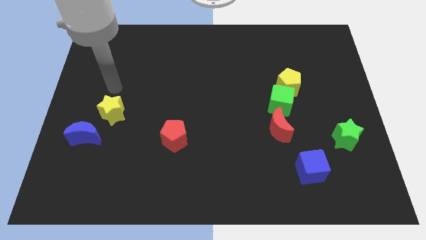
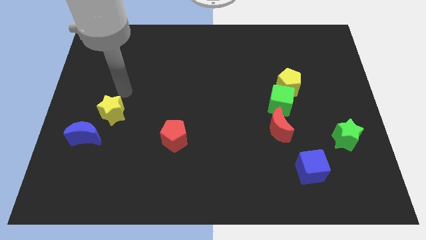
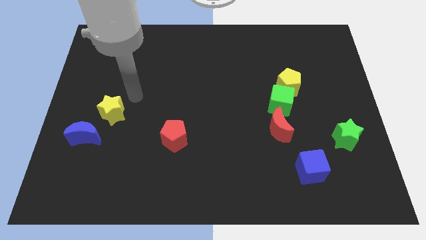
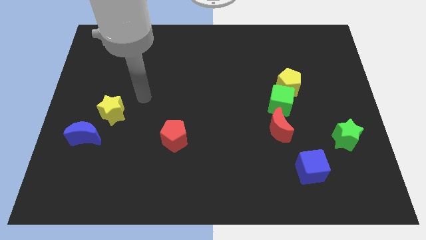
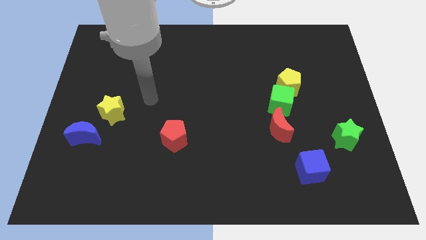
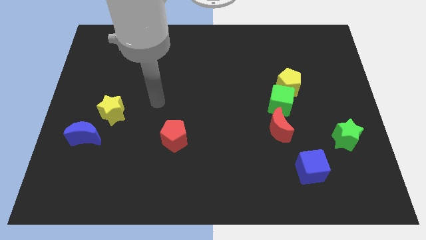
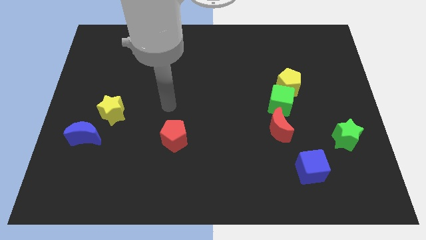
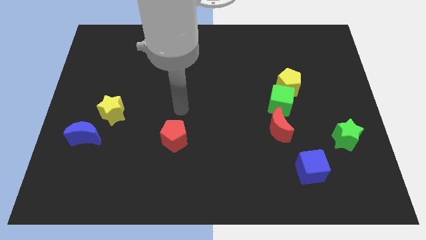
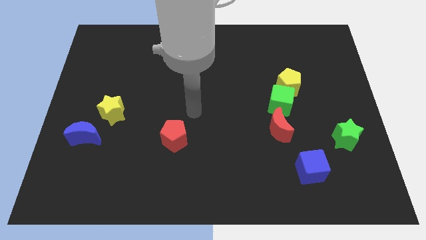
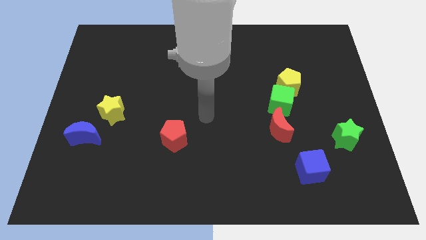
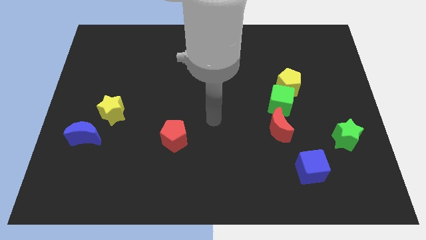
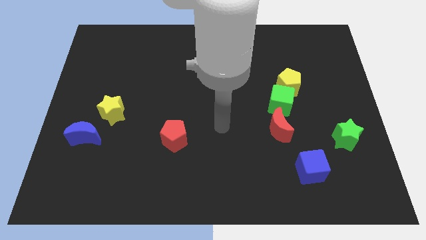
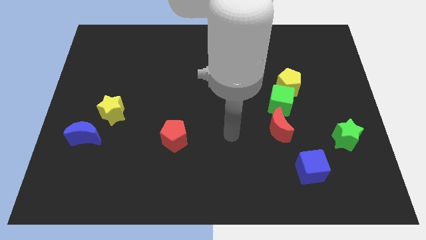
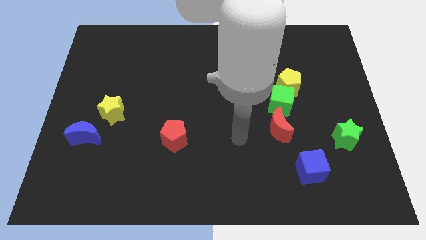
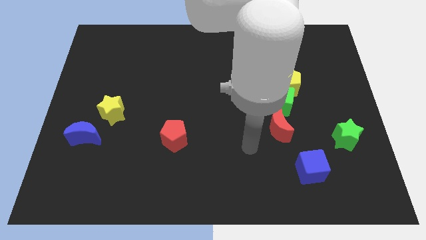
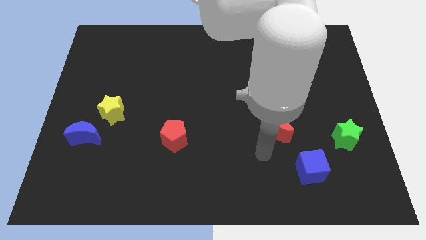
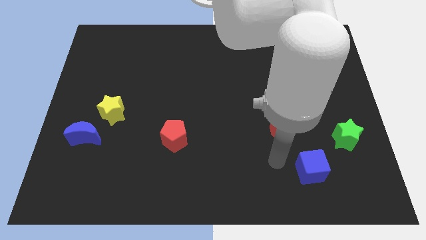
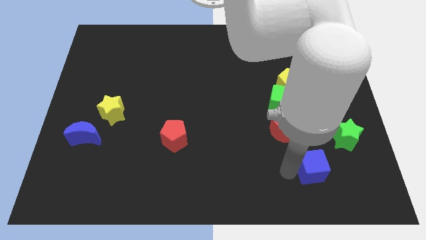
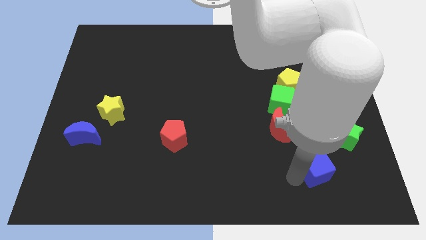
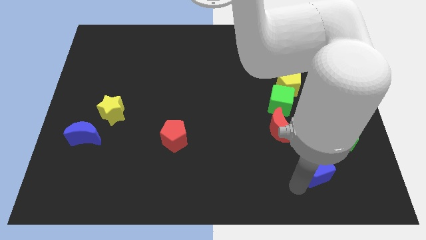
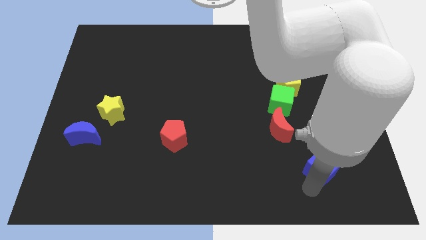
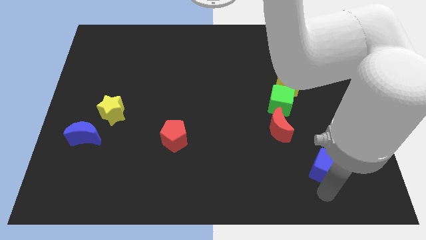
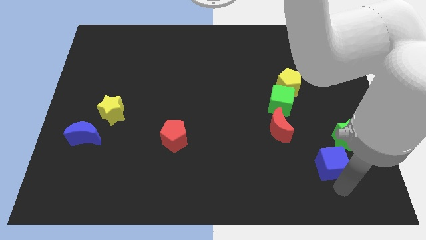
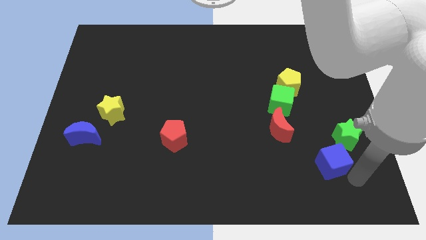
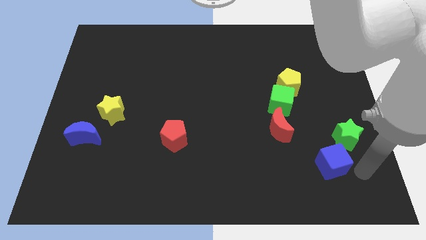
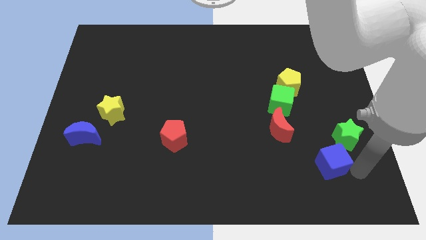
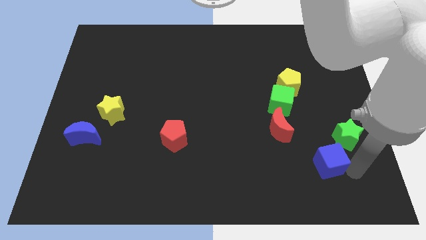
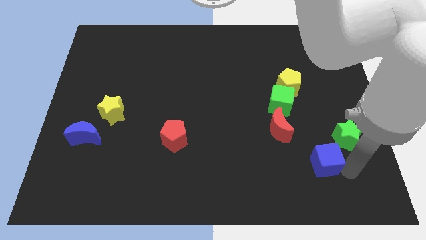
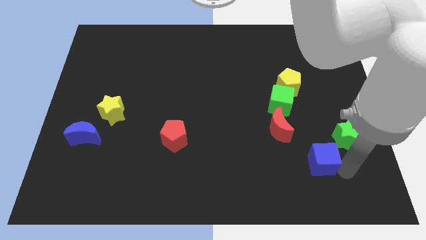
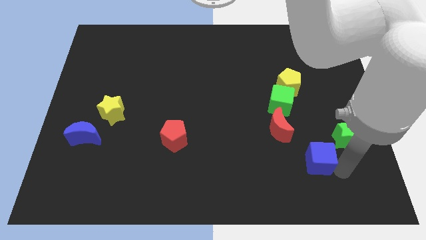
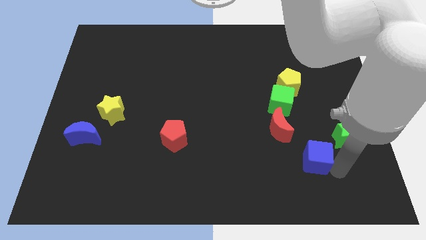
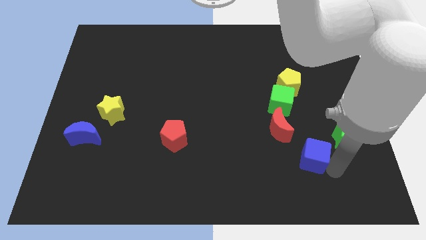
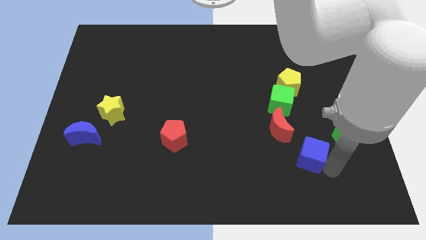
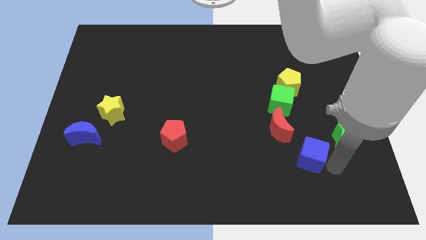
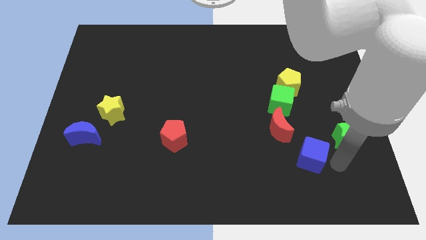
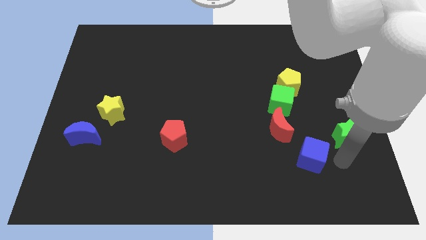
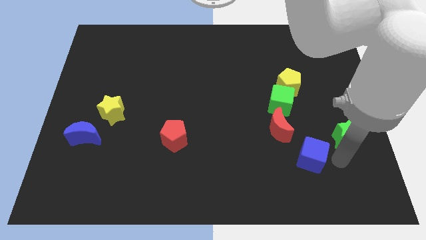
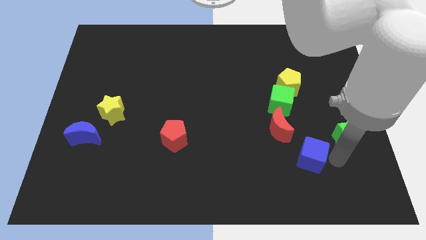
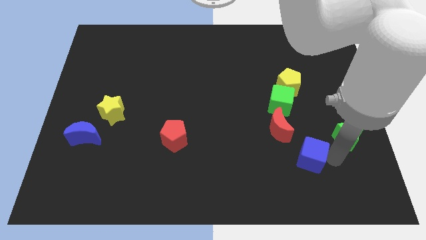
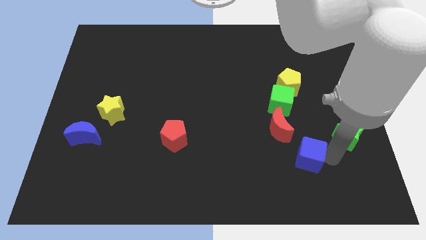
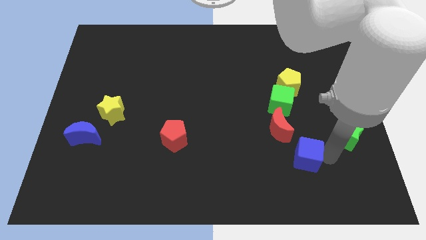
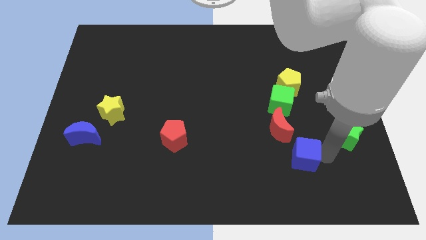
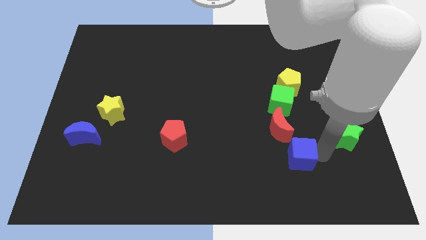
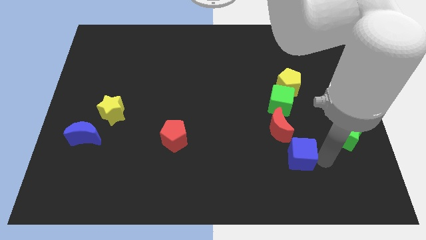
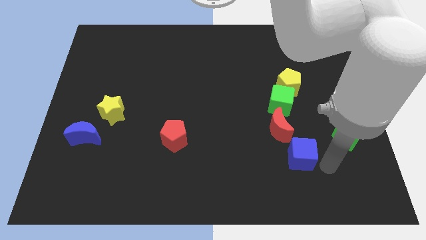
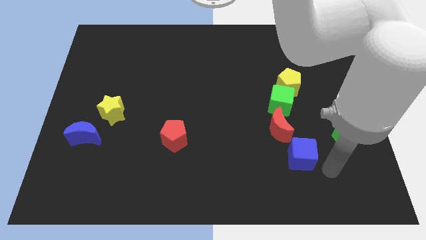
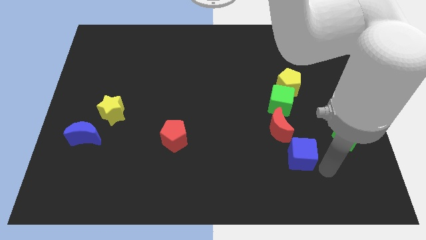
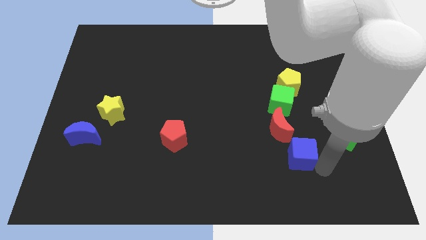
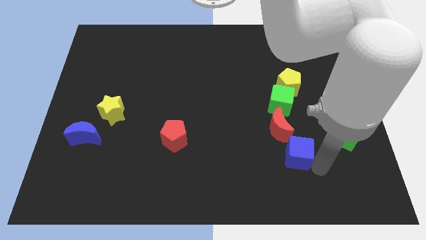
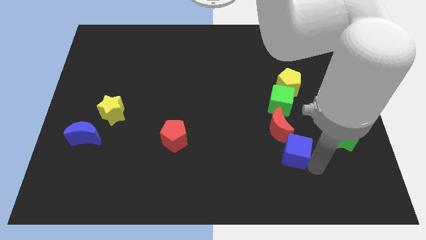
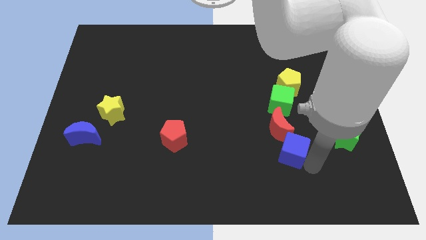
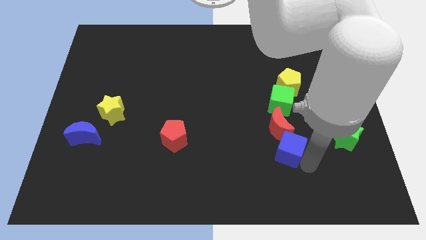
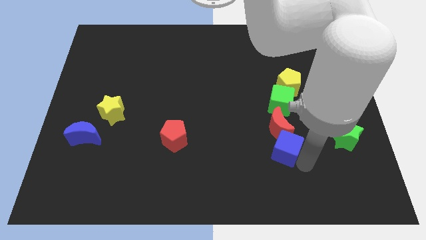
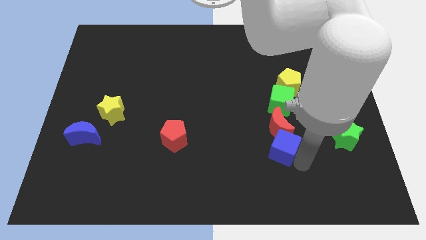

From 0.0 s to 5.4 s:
push the blue cube upwards and to the left a little

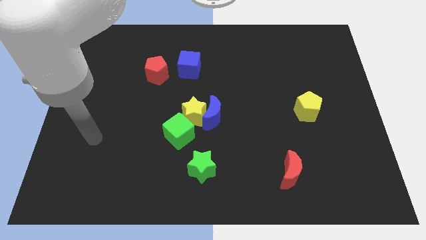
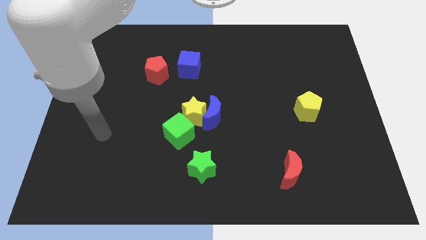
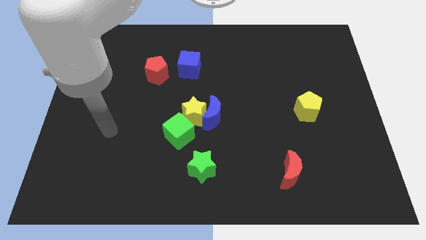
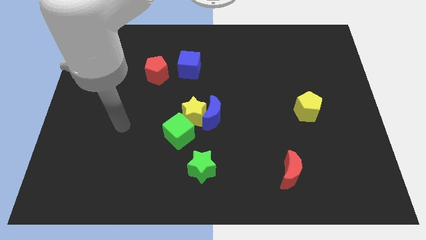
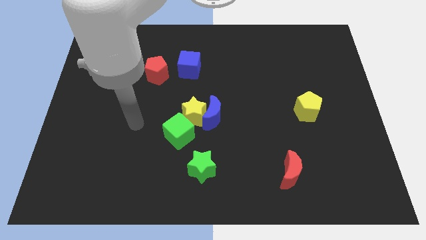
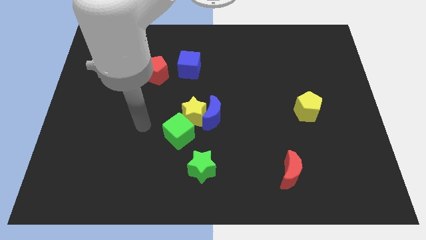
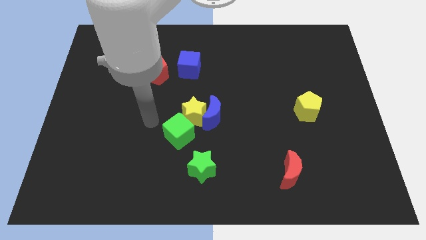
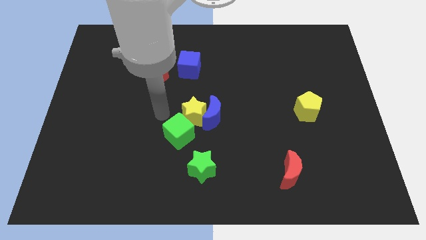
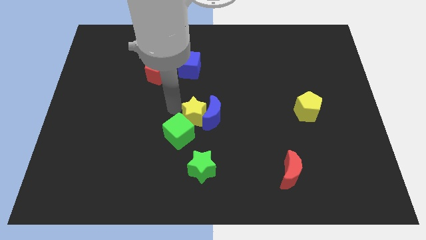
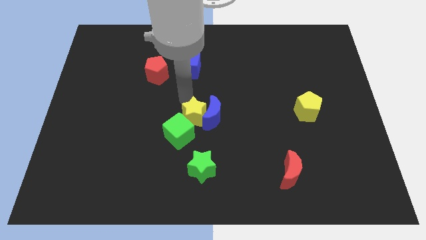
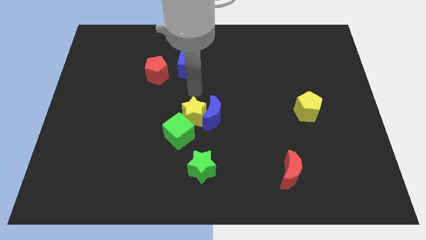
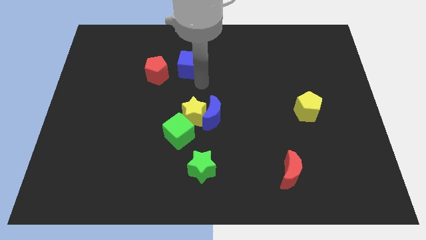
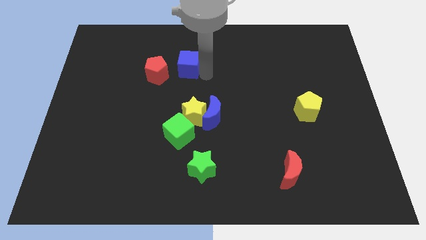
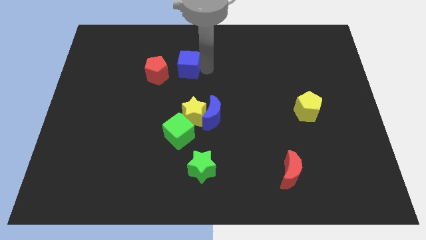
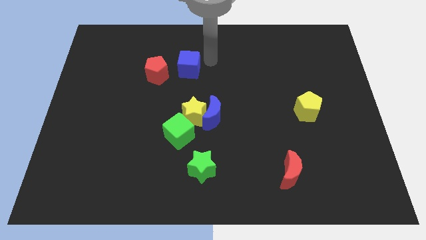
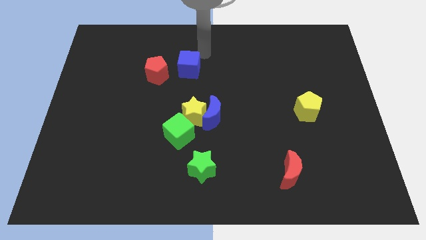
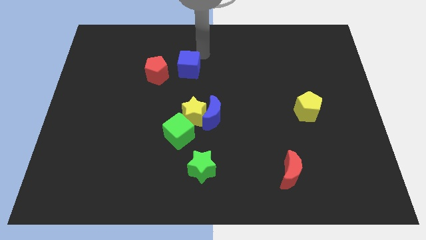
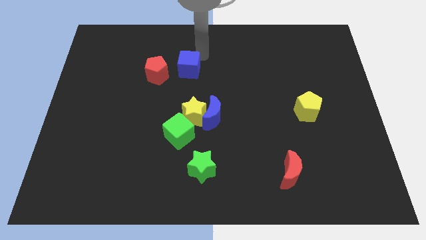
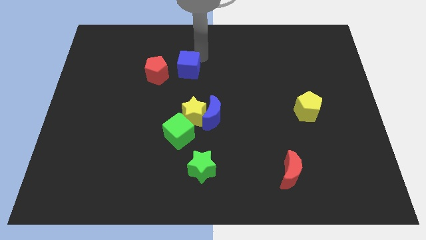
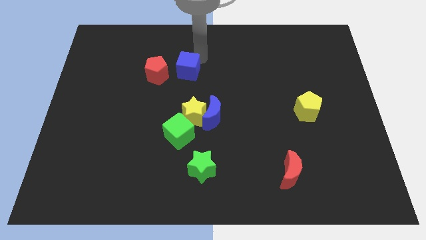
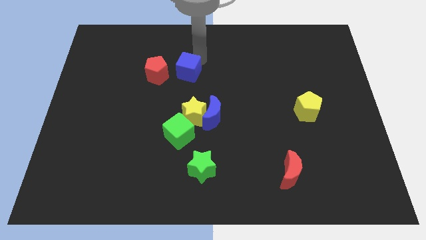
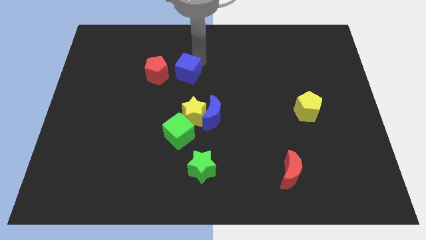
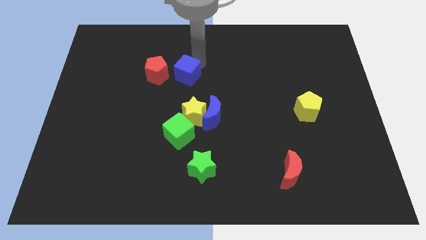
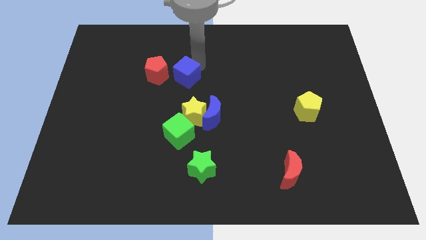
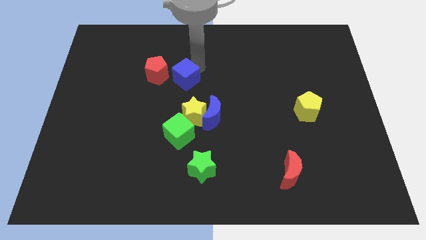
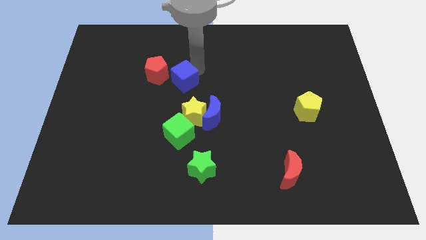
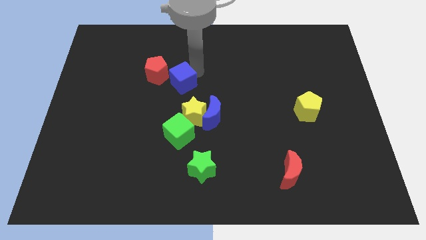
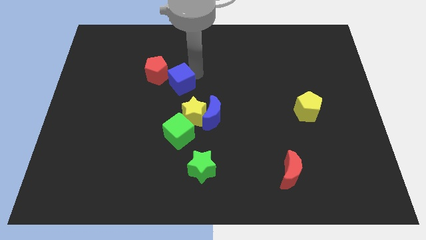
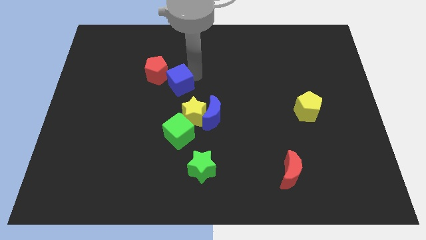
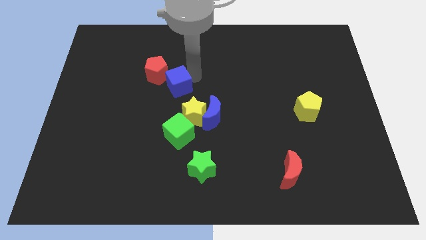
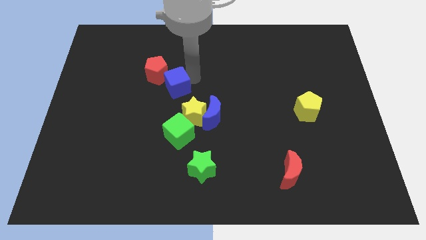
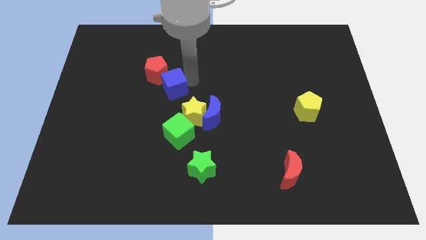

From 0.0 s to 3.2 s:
slide the blue cube down and to the left diagonally a bit
